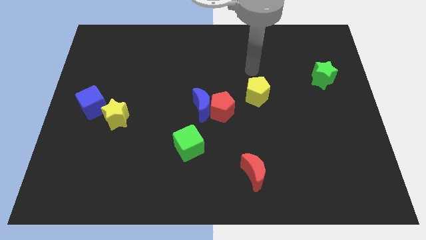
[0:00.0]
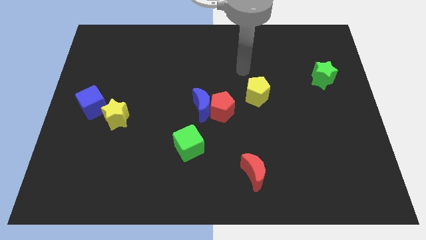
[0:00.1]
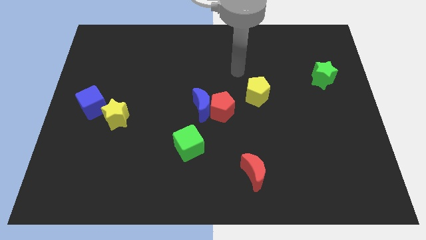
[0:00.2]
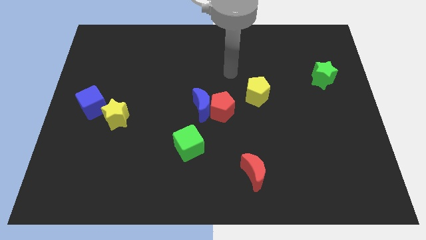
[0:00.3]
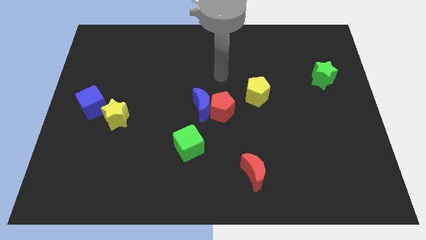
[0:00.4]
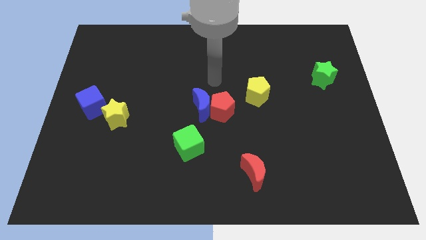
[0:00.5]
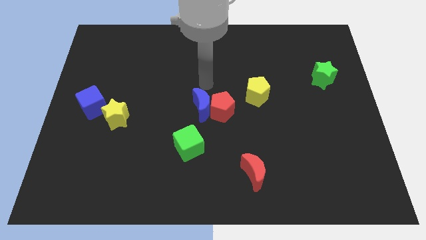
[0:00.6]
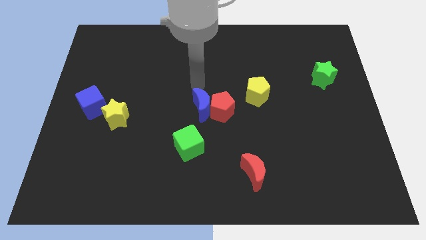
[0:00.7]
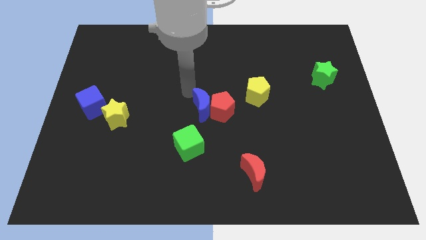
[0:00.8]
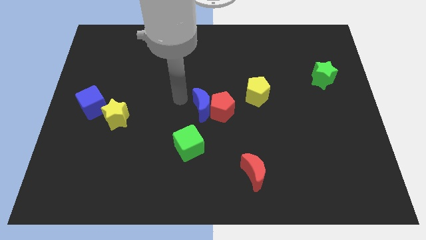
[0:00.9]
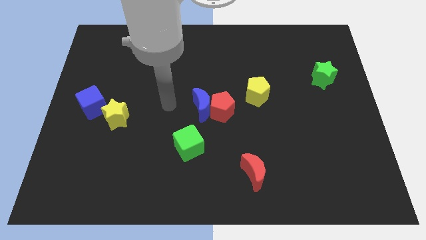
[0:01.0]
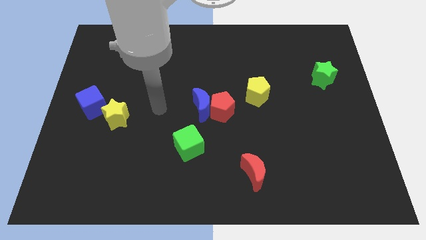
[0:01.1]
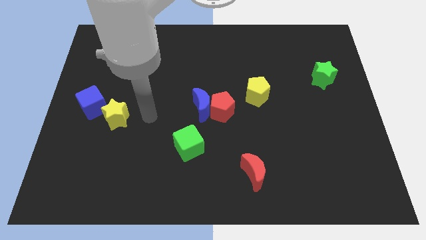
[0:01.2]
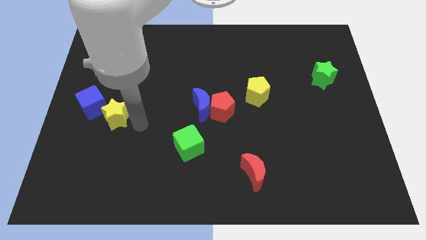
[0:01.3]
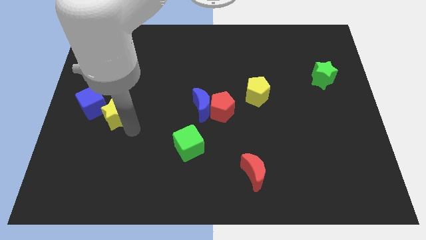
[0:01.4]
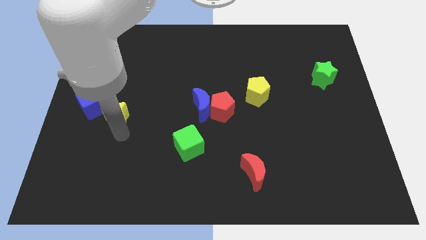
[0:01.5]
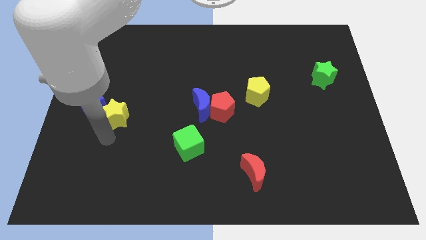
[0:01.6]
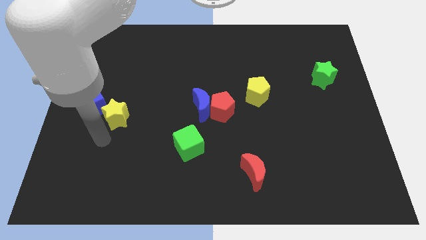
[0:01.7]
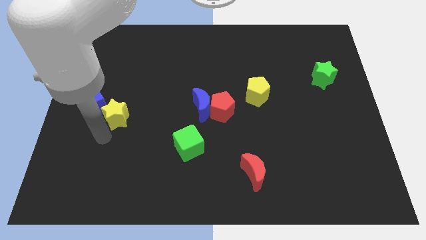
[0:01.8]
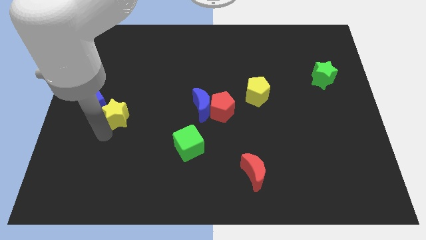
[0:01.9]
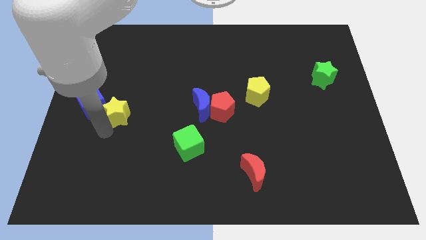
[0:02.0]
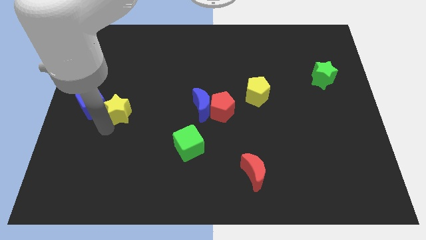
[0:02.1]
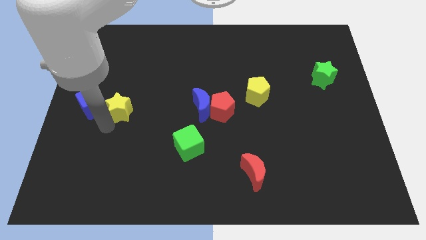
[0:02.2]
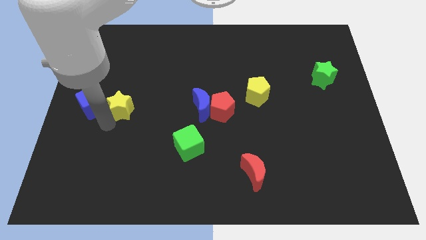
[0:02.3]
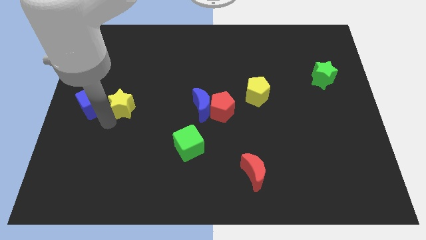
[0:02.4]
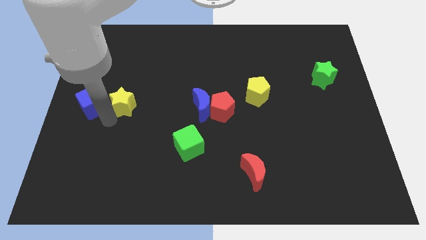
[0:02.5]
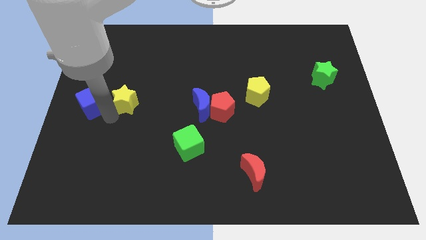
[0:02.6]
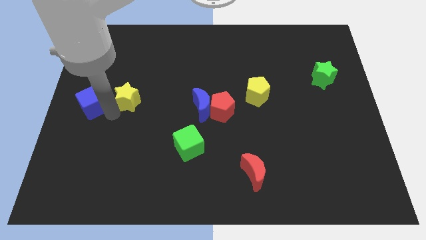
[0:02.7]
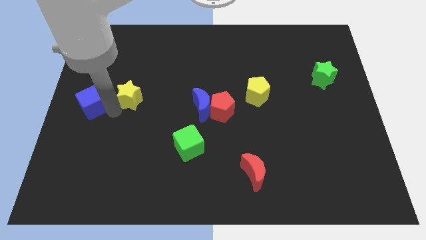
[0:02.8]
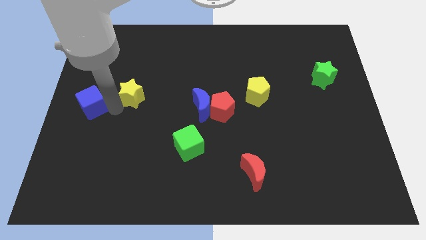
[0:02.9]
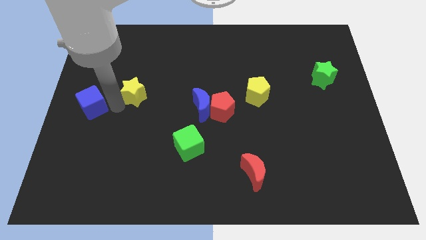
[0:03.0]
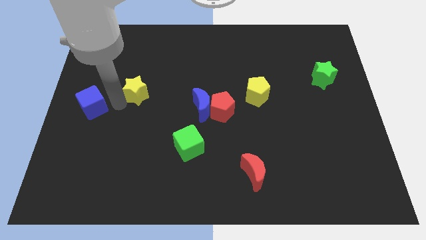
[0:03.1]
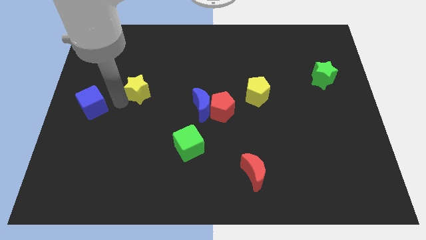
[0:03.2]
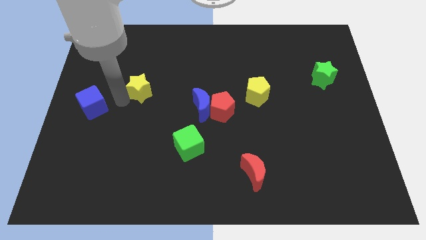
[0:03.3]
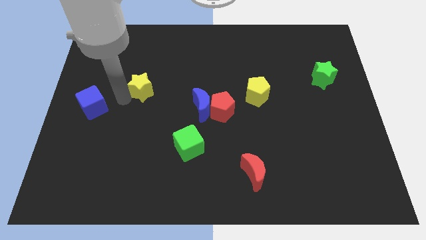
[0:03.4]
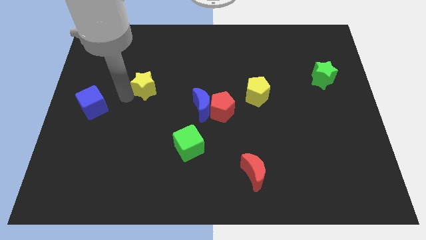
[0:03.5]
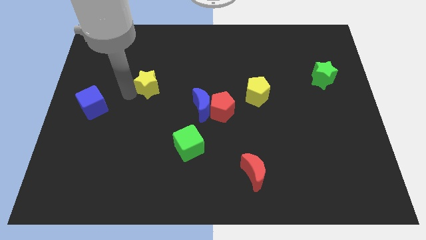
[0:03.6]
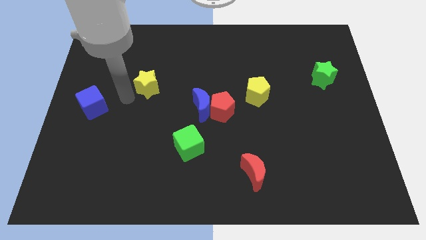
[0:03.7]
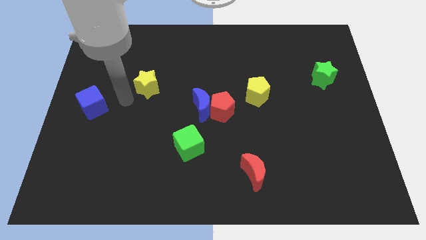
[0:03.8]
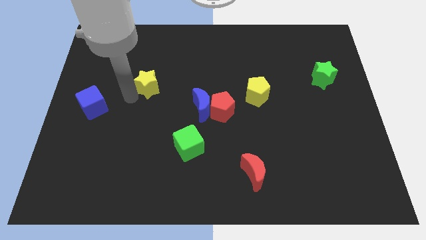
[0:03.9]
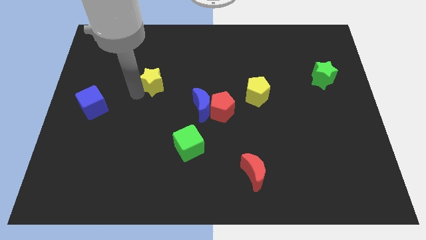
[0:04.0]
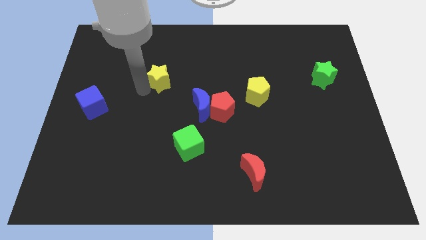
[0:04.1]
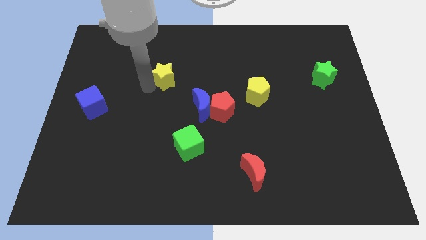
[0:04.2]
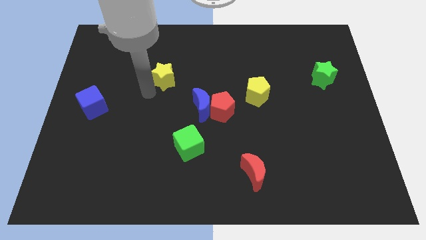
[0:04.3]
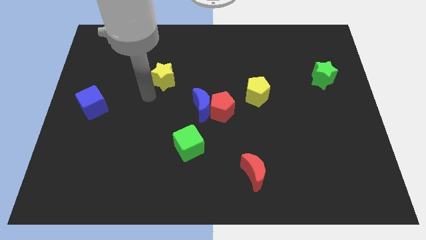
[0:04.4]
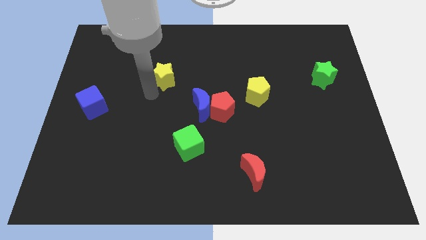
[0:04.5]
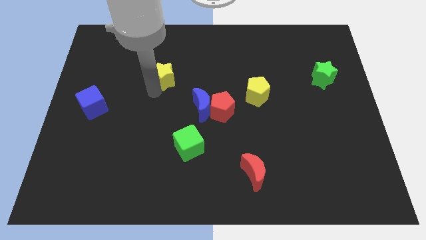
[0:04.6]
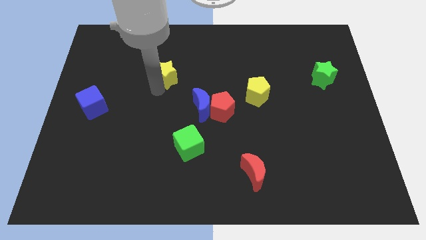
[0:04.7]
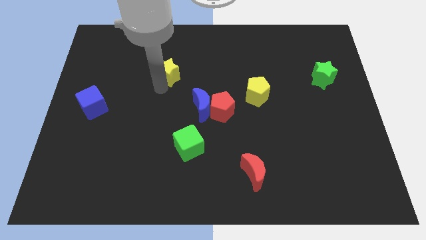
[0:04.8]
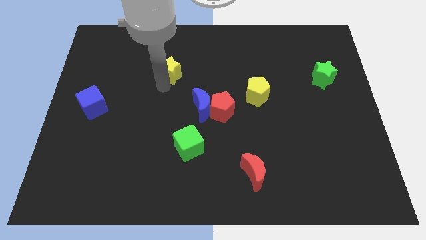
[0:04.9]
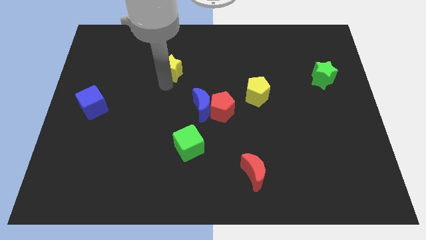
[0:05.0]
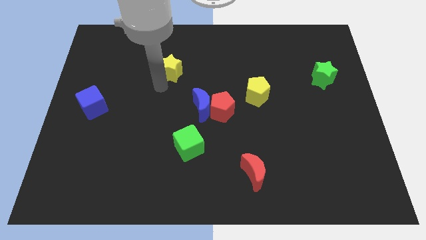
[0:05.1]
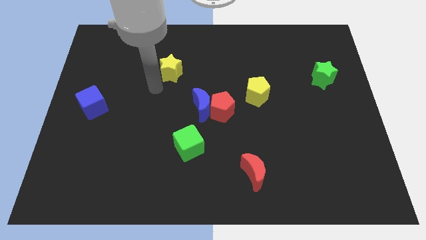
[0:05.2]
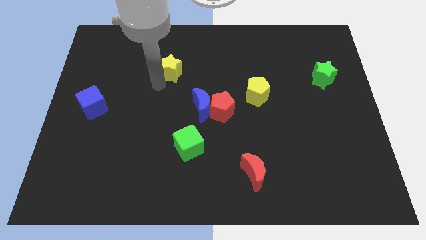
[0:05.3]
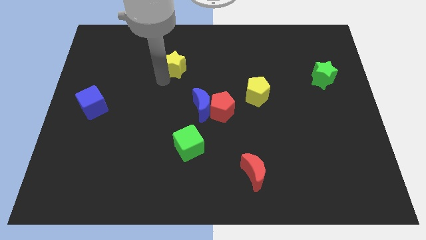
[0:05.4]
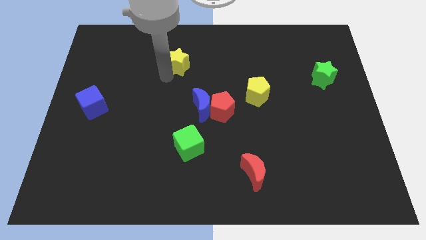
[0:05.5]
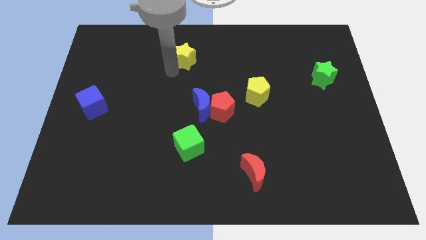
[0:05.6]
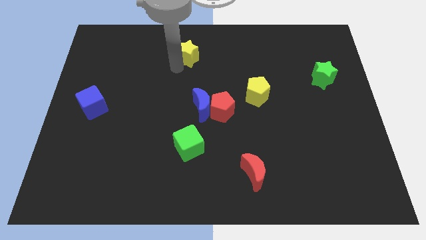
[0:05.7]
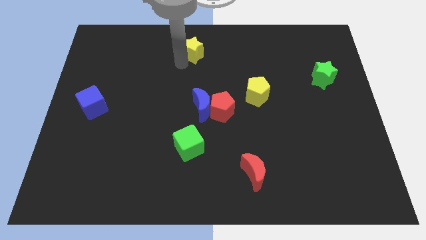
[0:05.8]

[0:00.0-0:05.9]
push the yellow star to the towards your base
